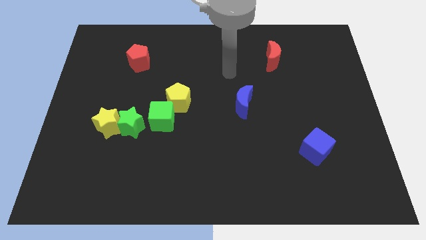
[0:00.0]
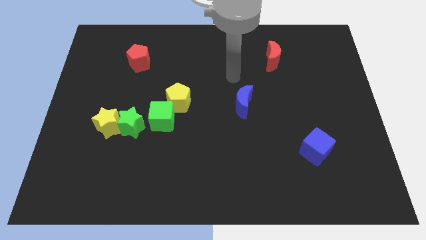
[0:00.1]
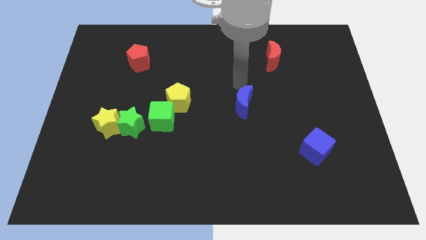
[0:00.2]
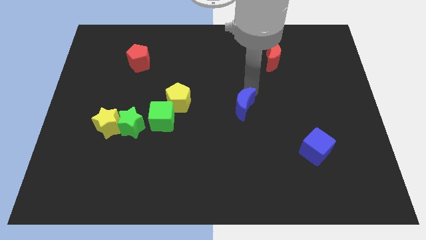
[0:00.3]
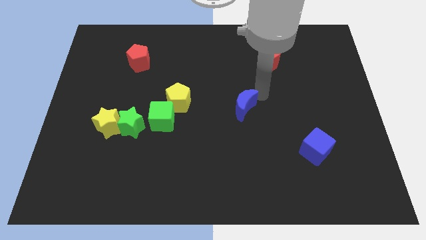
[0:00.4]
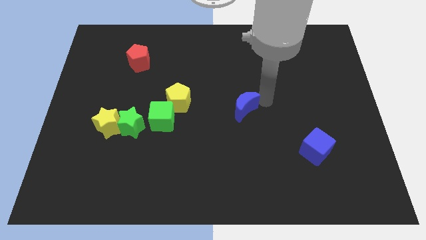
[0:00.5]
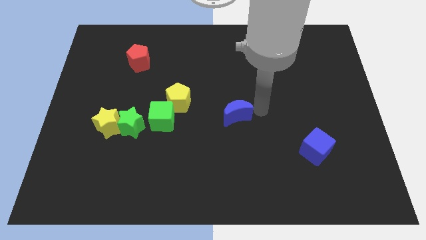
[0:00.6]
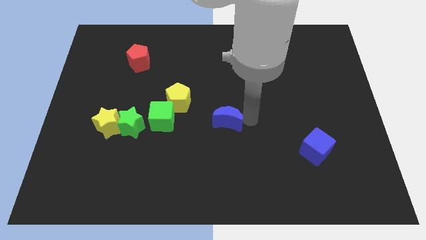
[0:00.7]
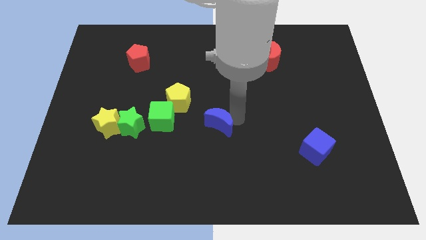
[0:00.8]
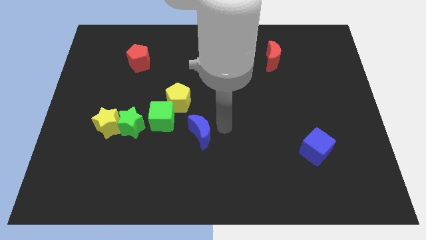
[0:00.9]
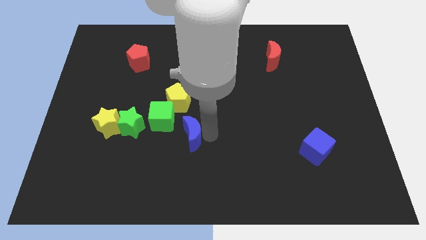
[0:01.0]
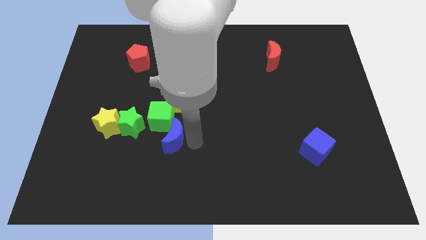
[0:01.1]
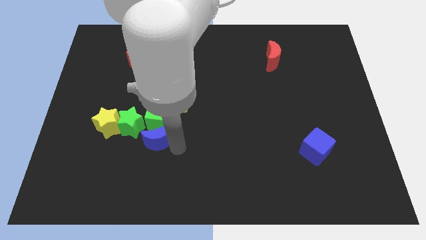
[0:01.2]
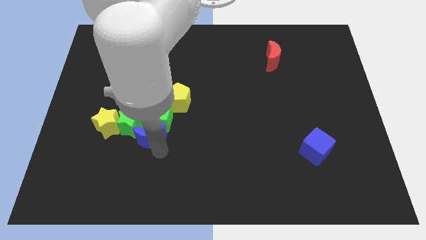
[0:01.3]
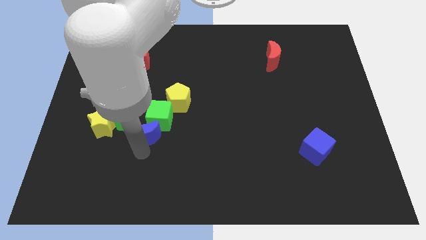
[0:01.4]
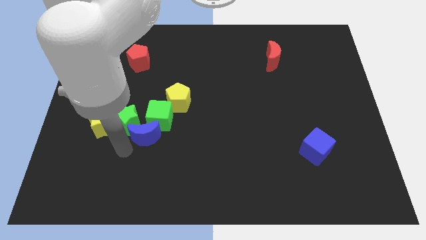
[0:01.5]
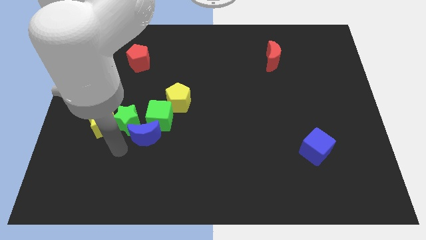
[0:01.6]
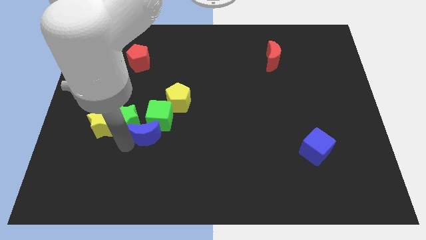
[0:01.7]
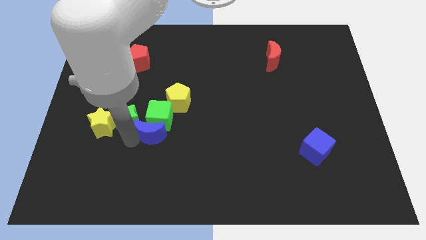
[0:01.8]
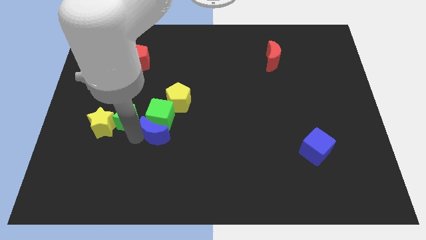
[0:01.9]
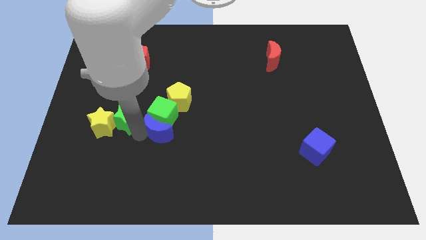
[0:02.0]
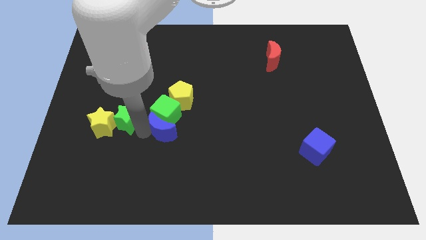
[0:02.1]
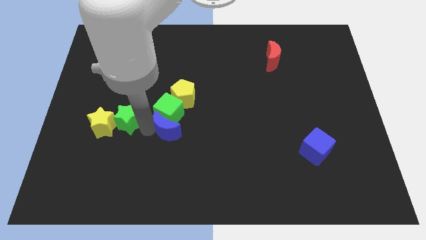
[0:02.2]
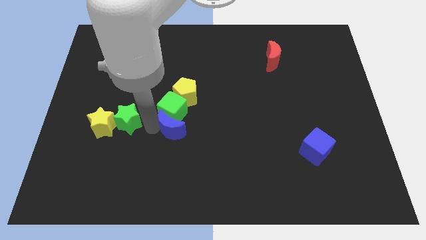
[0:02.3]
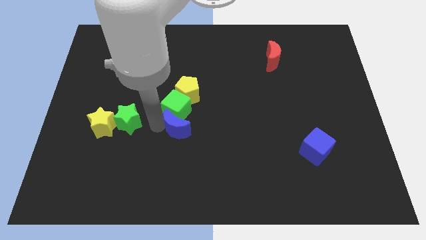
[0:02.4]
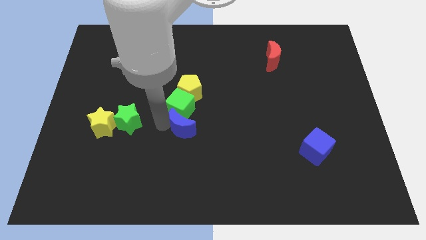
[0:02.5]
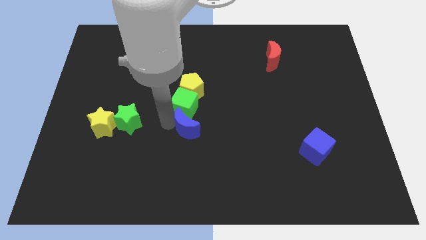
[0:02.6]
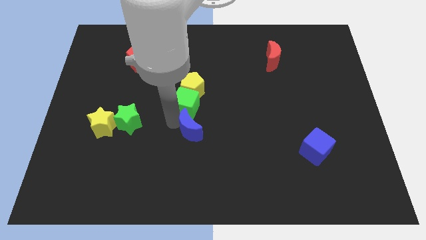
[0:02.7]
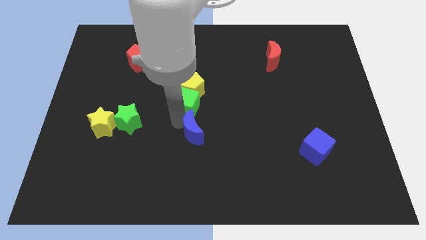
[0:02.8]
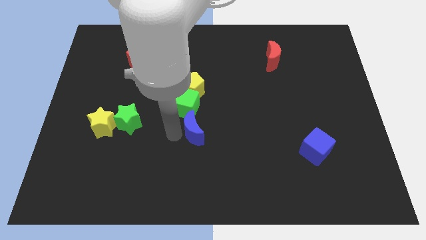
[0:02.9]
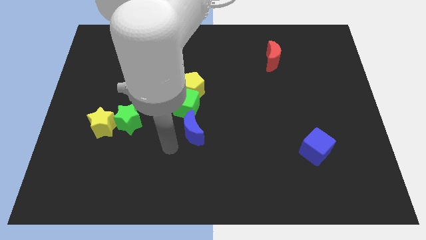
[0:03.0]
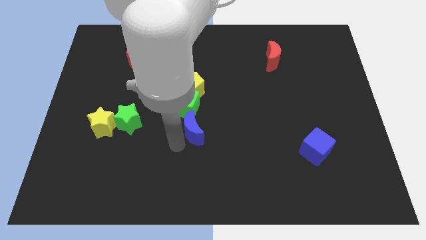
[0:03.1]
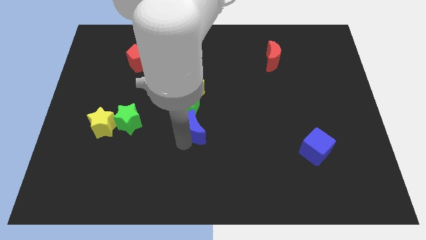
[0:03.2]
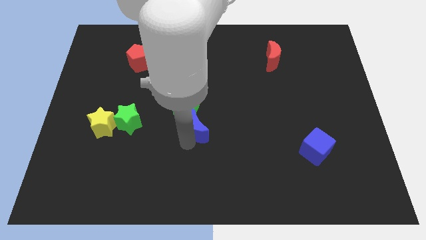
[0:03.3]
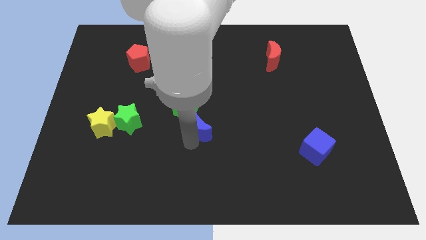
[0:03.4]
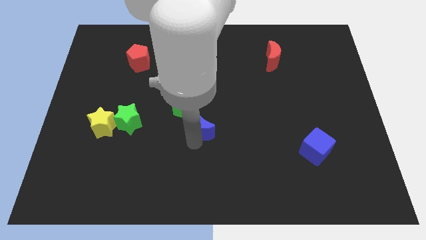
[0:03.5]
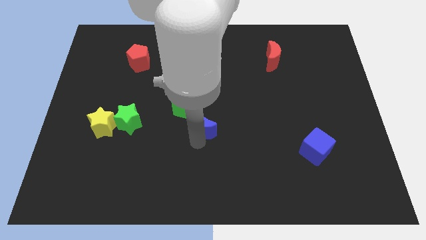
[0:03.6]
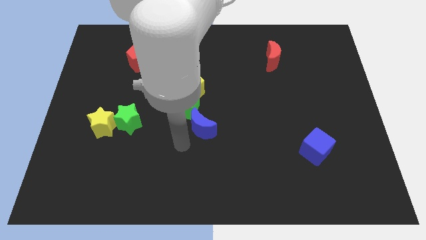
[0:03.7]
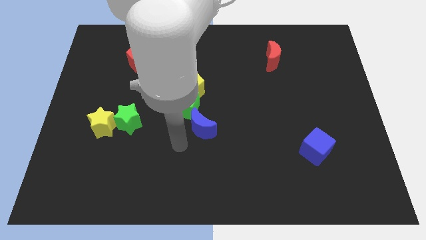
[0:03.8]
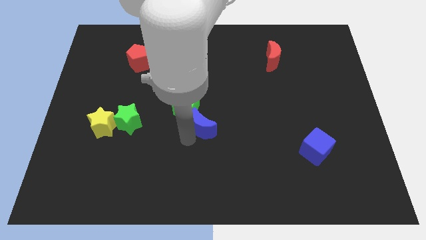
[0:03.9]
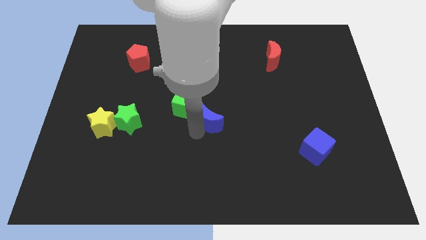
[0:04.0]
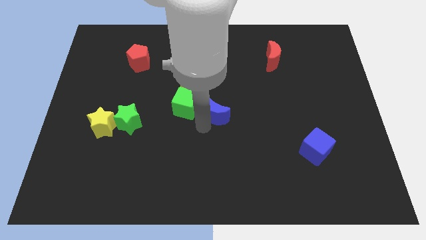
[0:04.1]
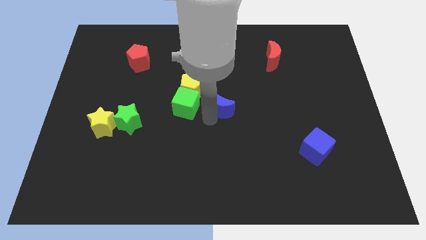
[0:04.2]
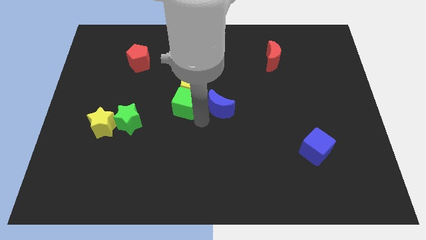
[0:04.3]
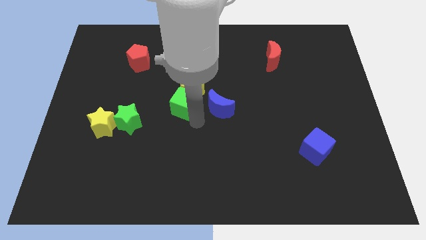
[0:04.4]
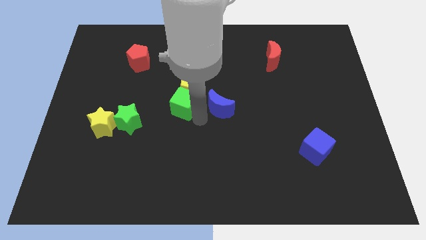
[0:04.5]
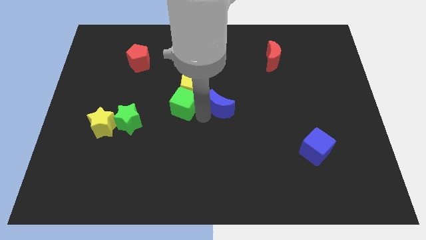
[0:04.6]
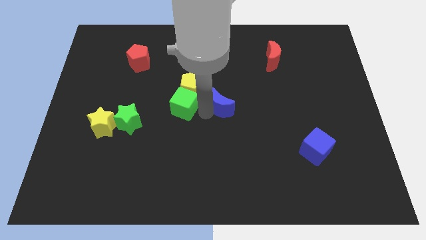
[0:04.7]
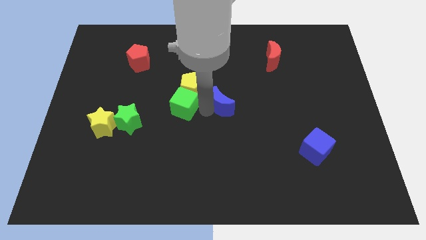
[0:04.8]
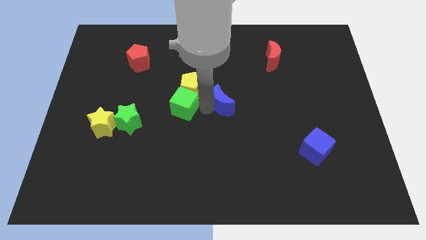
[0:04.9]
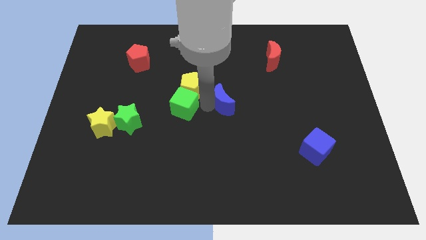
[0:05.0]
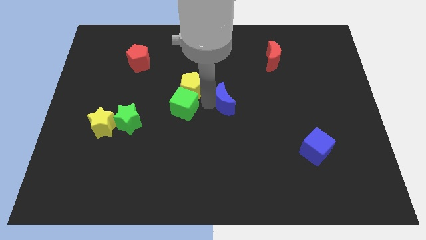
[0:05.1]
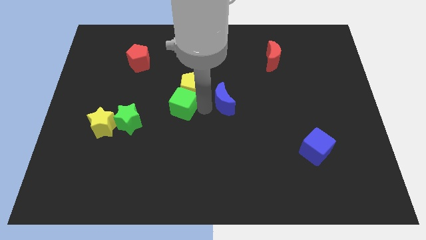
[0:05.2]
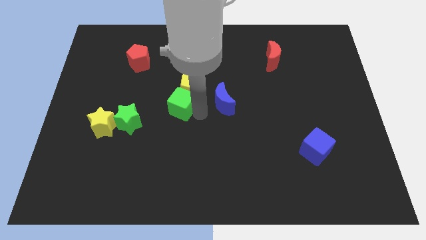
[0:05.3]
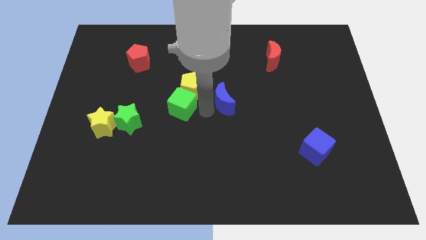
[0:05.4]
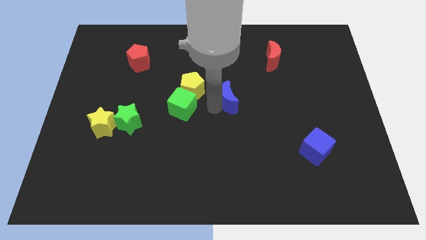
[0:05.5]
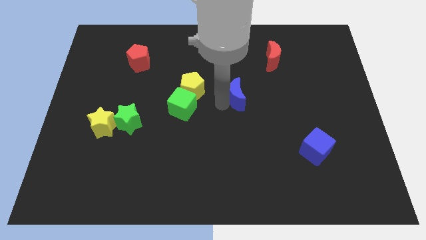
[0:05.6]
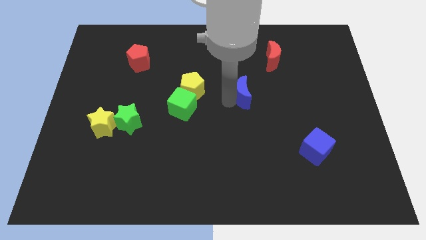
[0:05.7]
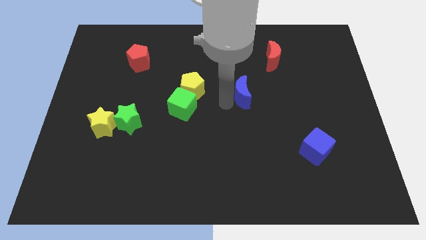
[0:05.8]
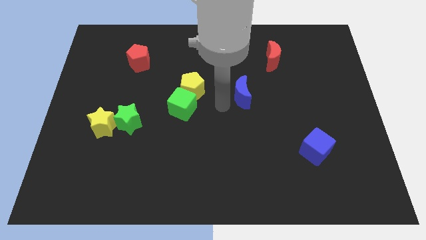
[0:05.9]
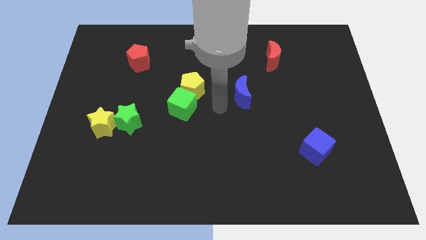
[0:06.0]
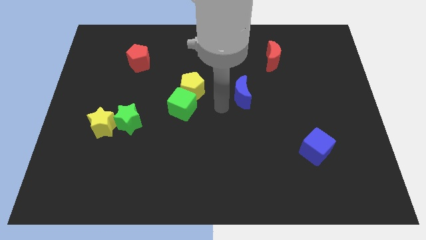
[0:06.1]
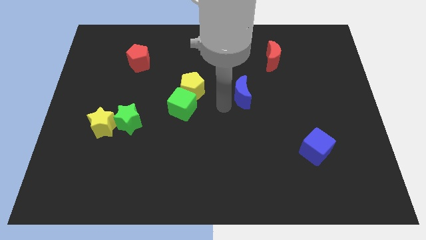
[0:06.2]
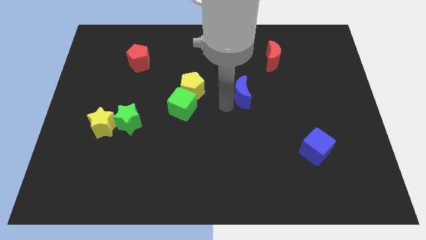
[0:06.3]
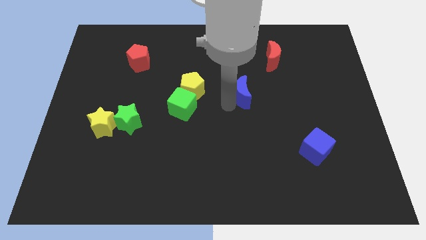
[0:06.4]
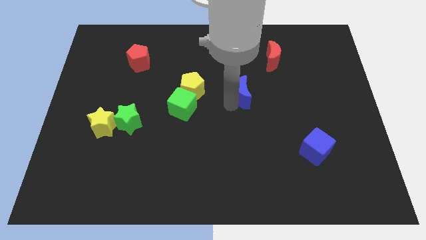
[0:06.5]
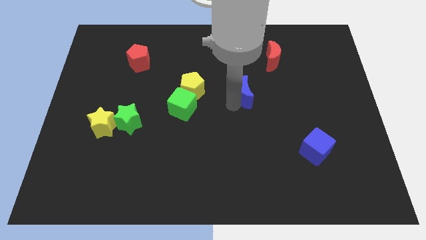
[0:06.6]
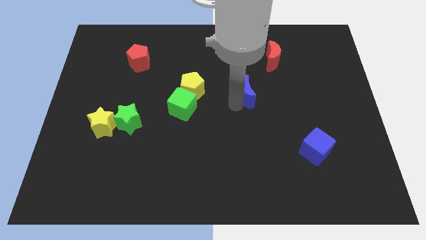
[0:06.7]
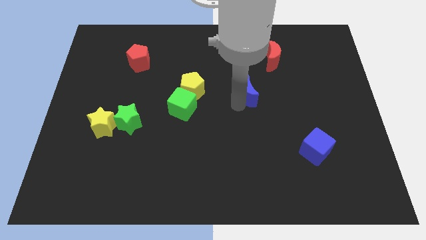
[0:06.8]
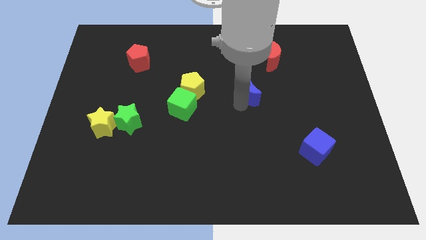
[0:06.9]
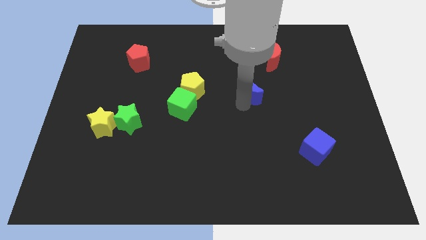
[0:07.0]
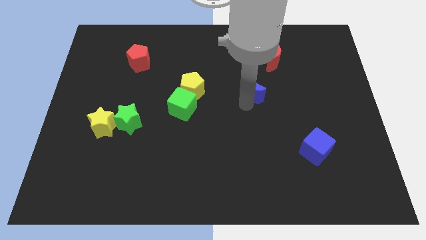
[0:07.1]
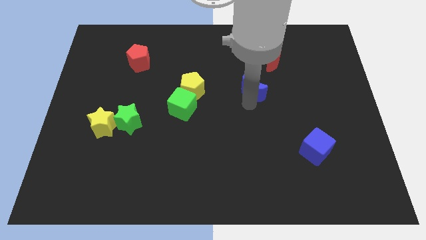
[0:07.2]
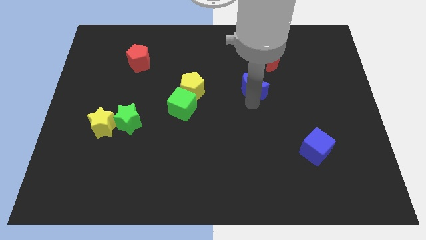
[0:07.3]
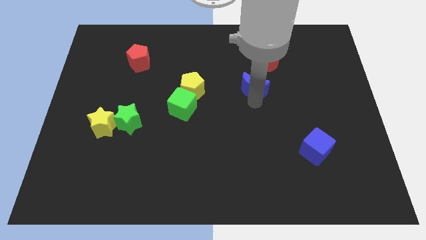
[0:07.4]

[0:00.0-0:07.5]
slide the blue moon diagonally down and to the left of the red moon
